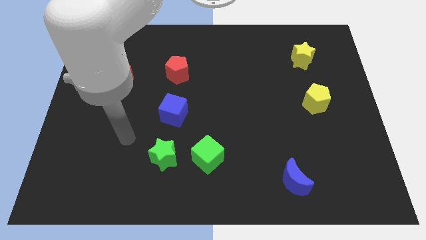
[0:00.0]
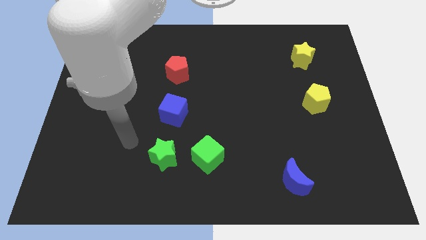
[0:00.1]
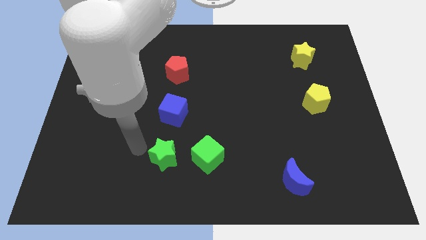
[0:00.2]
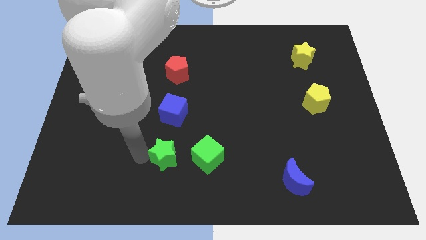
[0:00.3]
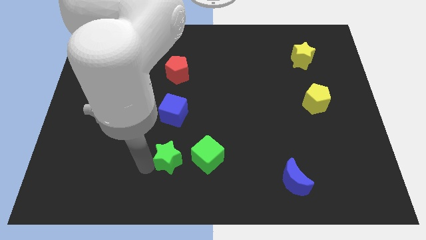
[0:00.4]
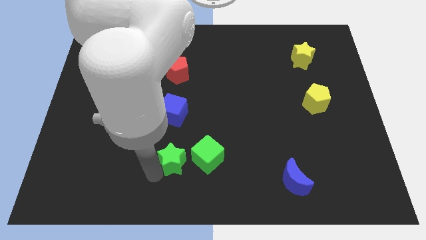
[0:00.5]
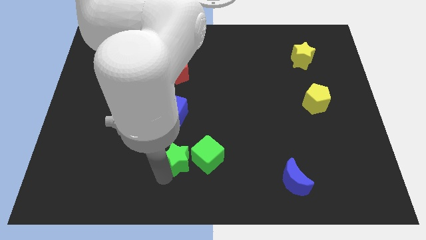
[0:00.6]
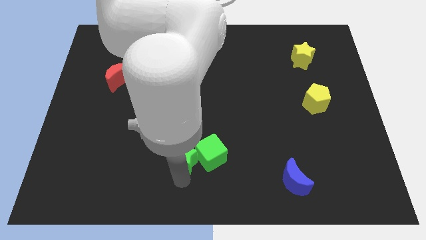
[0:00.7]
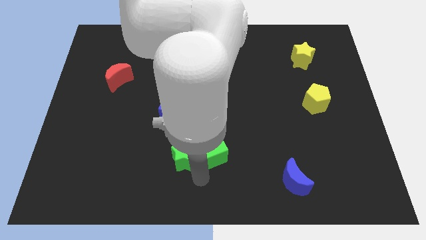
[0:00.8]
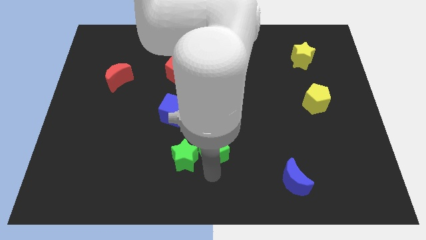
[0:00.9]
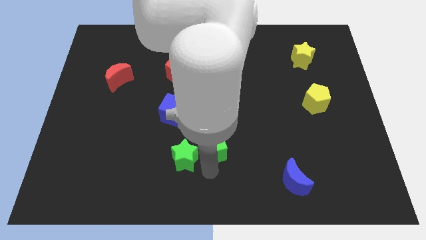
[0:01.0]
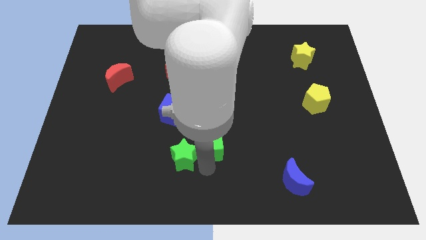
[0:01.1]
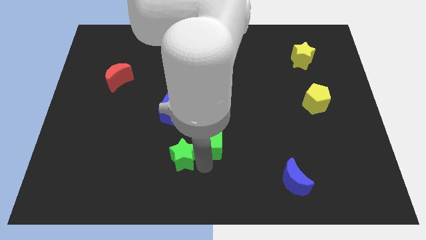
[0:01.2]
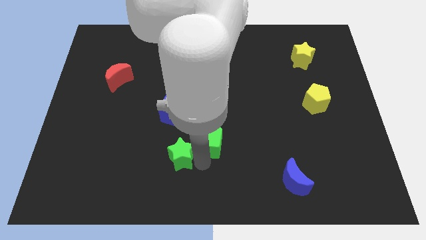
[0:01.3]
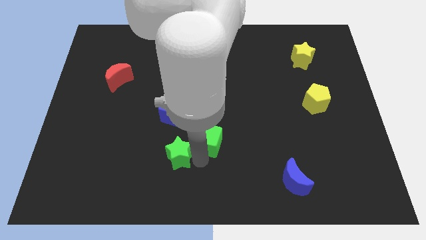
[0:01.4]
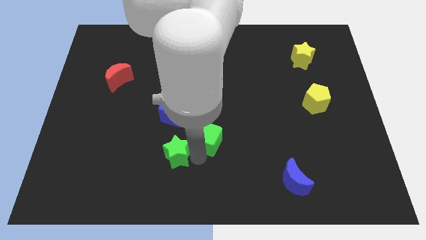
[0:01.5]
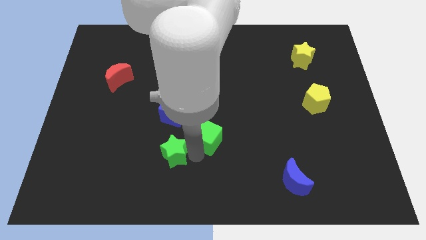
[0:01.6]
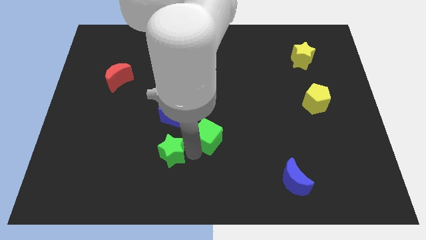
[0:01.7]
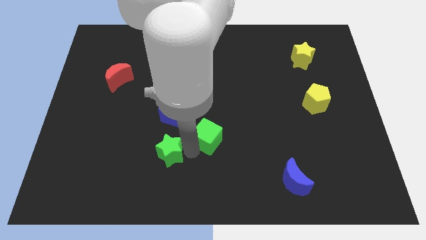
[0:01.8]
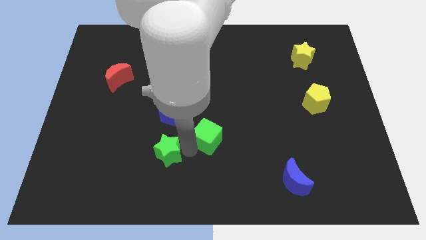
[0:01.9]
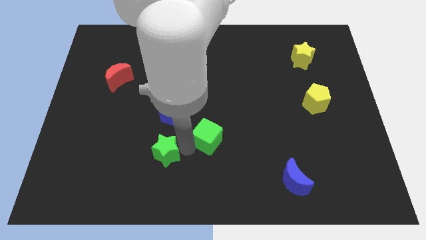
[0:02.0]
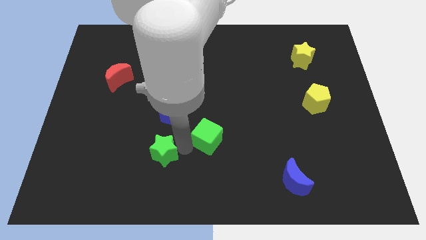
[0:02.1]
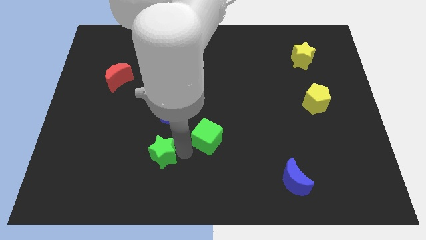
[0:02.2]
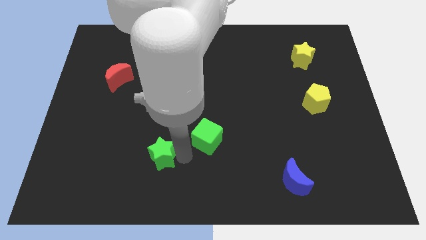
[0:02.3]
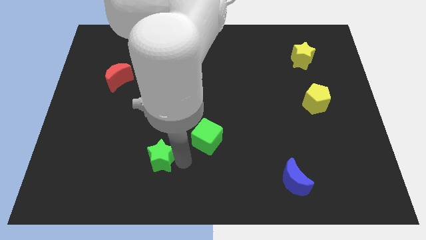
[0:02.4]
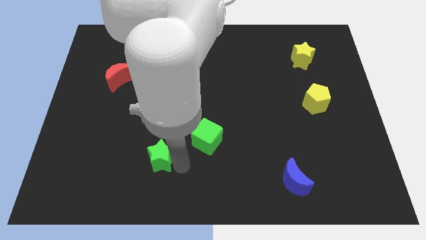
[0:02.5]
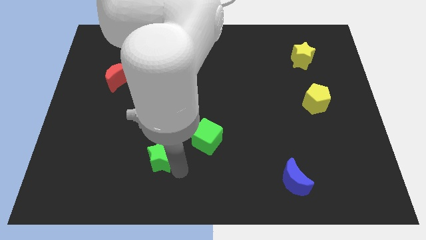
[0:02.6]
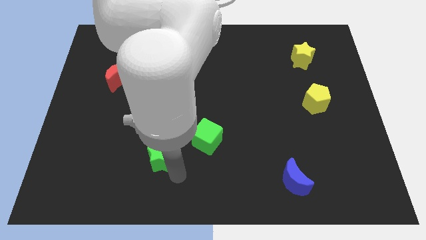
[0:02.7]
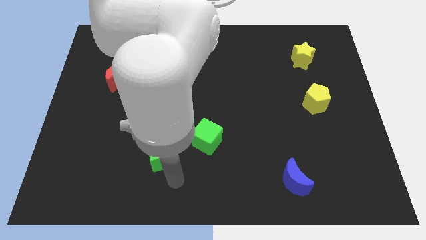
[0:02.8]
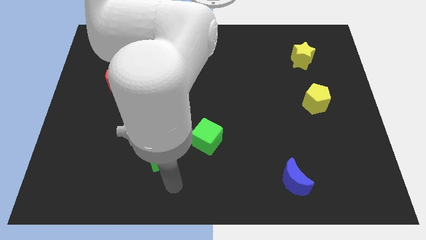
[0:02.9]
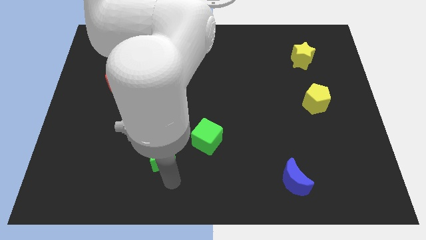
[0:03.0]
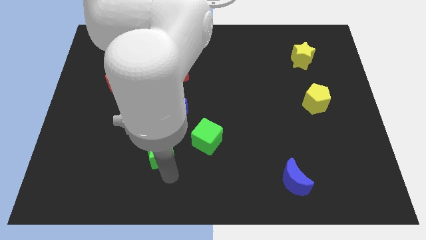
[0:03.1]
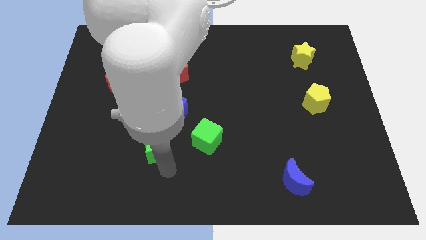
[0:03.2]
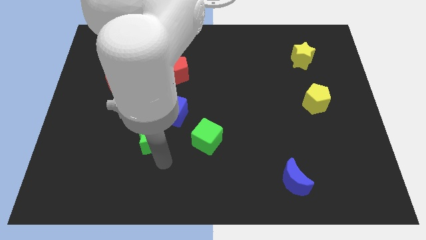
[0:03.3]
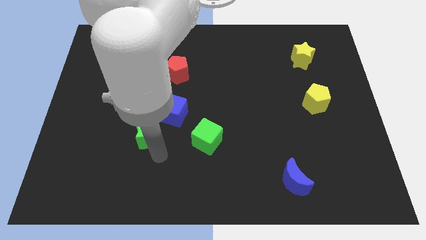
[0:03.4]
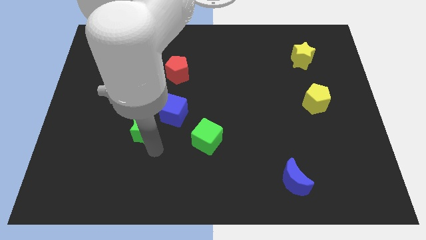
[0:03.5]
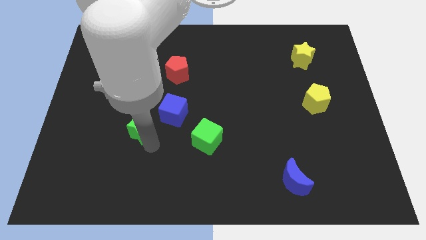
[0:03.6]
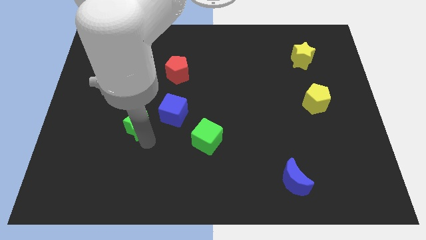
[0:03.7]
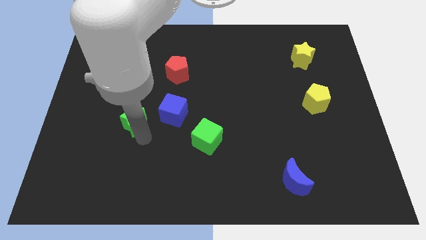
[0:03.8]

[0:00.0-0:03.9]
slightly move the green star up

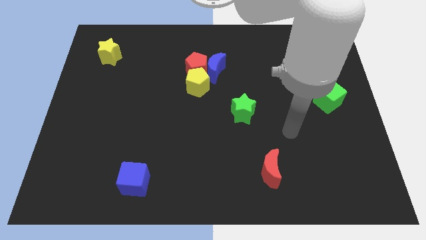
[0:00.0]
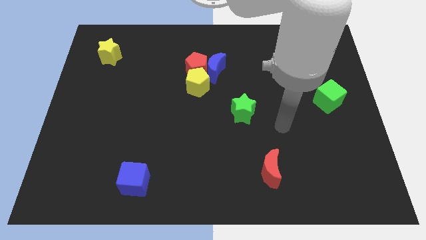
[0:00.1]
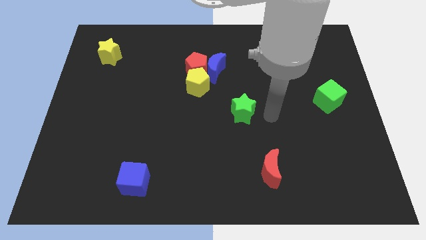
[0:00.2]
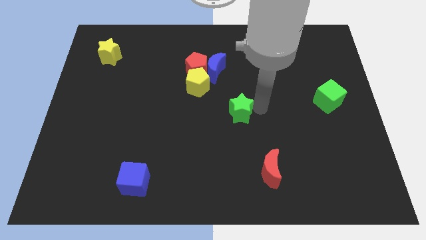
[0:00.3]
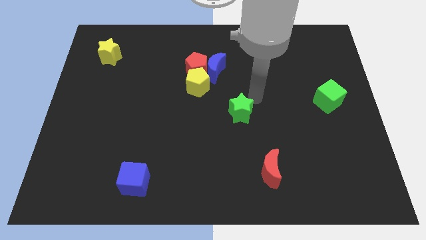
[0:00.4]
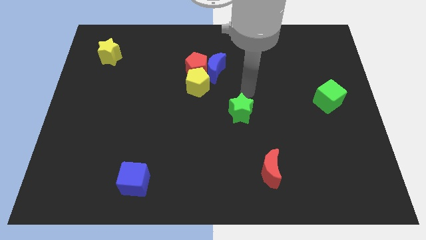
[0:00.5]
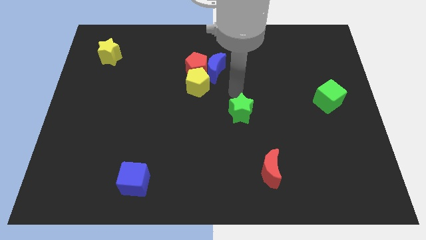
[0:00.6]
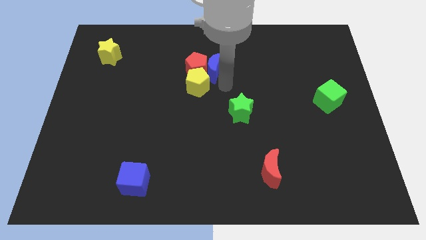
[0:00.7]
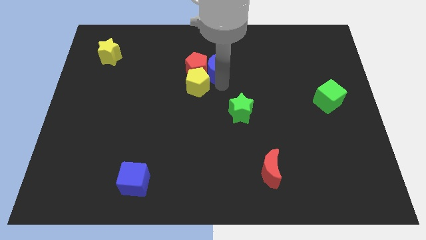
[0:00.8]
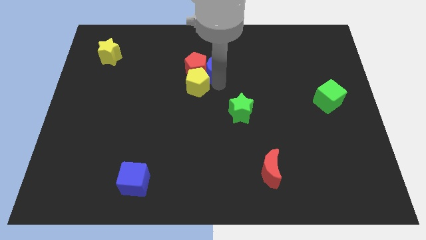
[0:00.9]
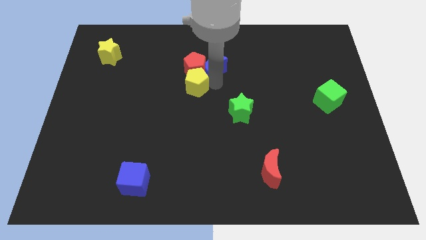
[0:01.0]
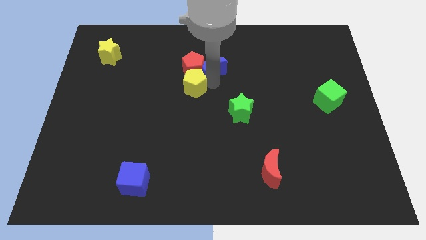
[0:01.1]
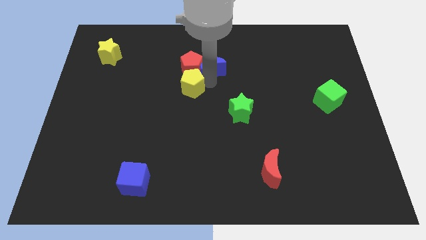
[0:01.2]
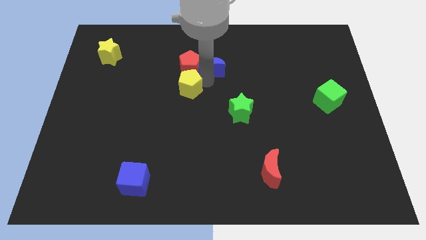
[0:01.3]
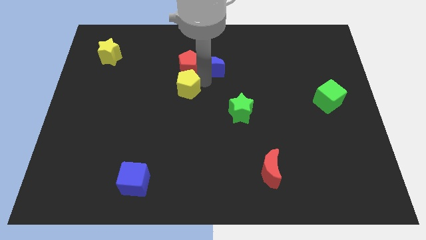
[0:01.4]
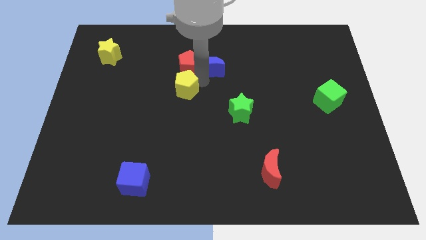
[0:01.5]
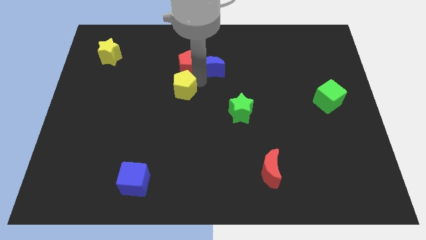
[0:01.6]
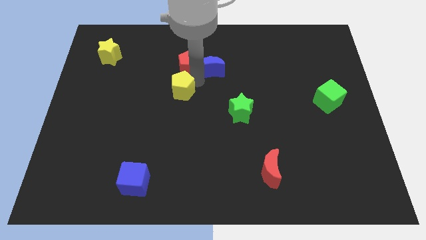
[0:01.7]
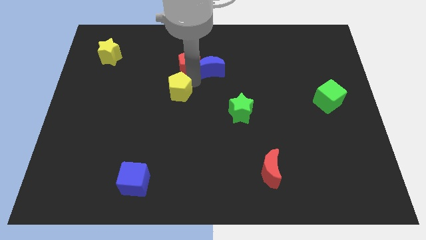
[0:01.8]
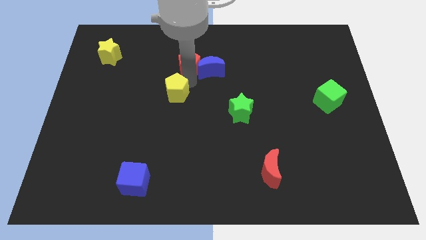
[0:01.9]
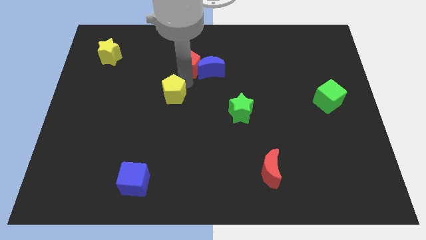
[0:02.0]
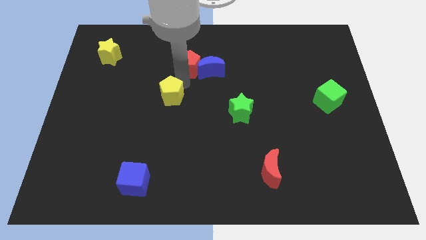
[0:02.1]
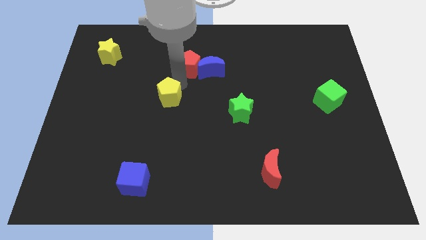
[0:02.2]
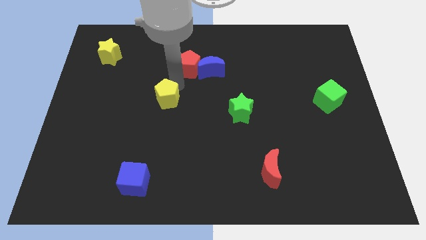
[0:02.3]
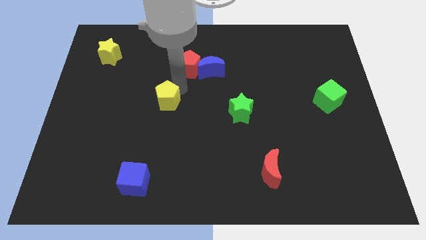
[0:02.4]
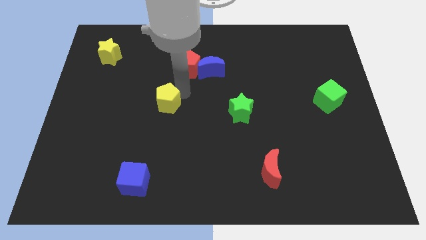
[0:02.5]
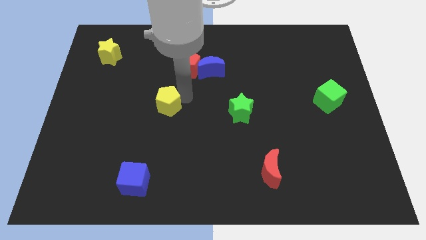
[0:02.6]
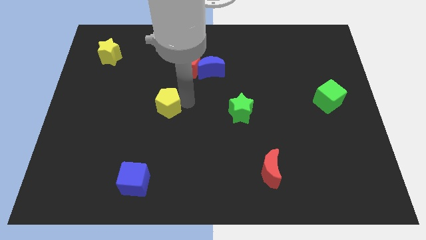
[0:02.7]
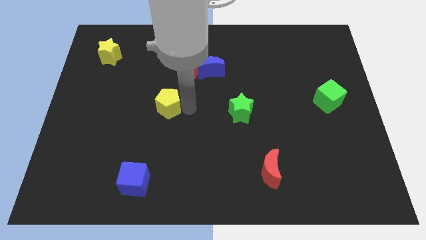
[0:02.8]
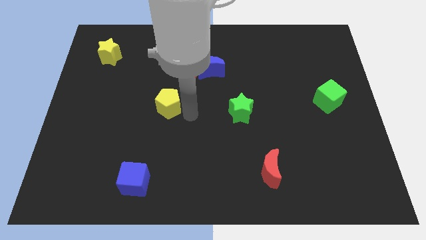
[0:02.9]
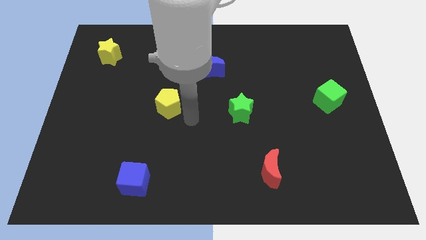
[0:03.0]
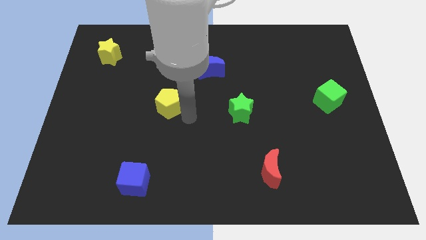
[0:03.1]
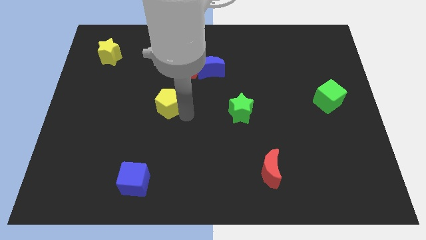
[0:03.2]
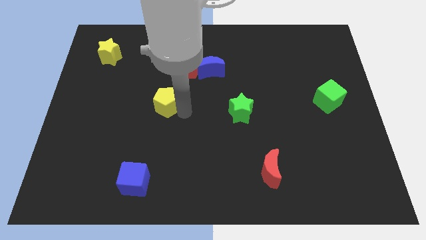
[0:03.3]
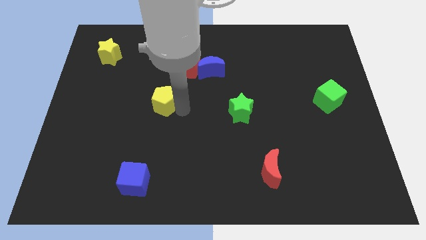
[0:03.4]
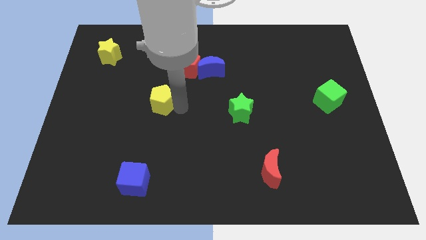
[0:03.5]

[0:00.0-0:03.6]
push the yellow pentagon somewhat to the left

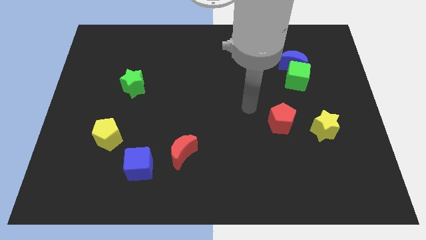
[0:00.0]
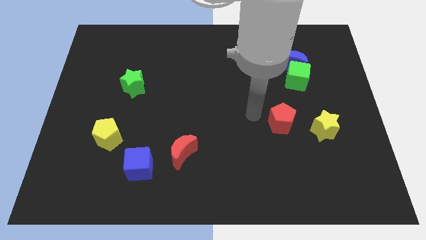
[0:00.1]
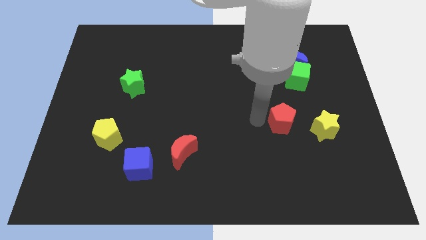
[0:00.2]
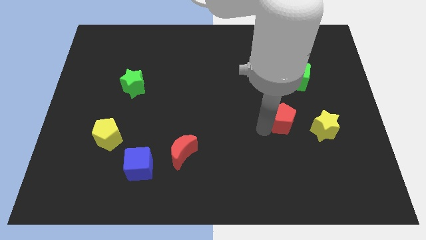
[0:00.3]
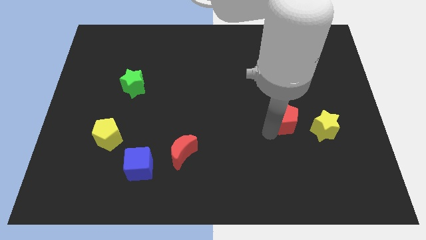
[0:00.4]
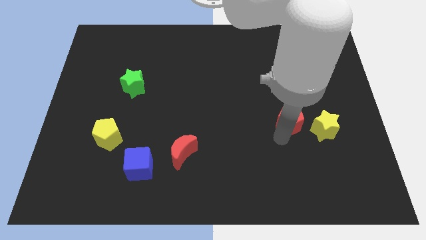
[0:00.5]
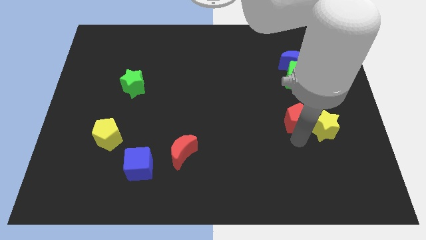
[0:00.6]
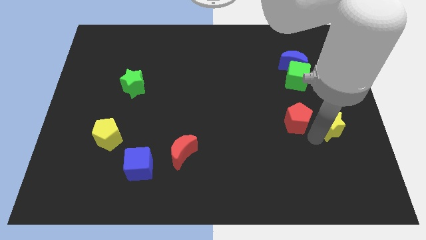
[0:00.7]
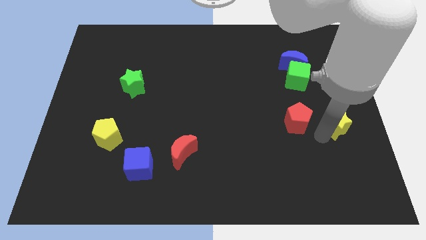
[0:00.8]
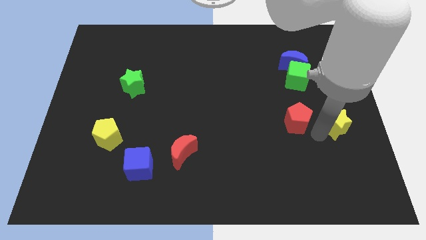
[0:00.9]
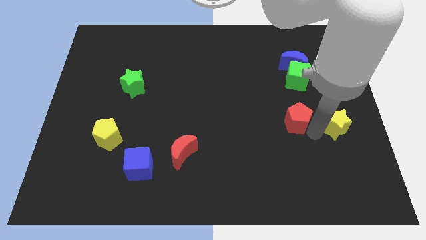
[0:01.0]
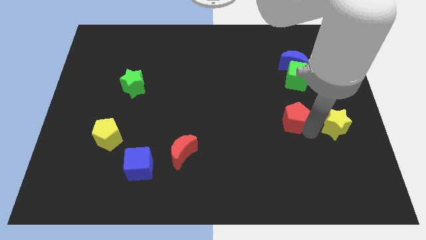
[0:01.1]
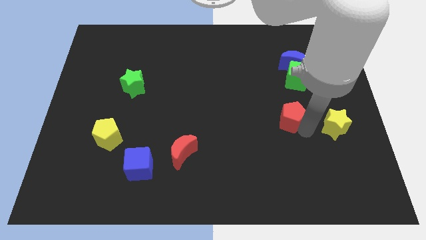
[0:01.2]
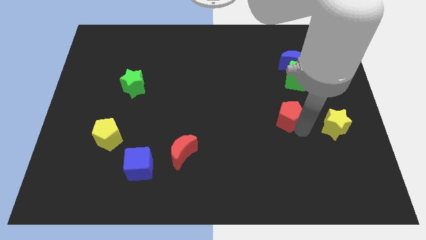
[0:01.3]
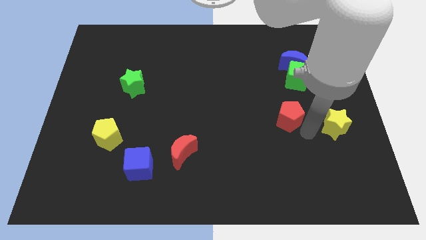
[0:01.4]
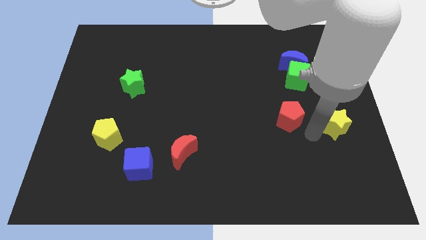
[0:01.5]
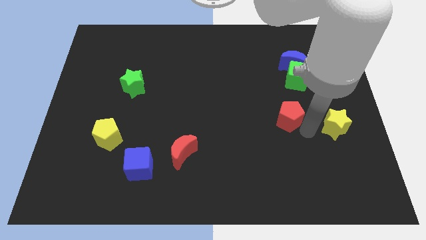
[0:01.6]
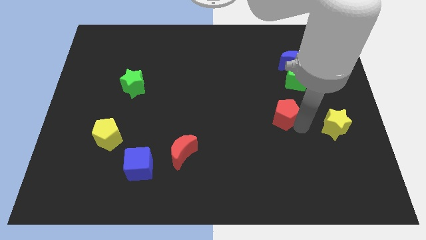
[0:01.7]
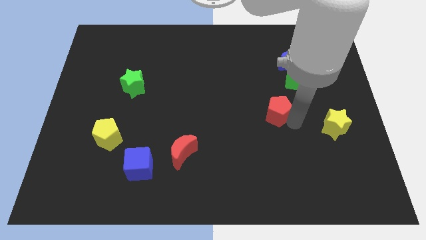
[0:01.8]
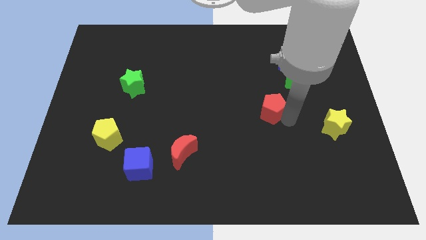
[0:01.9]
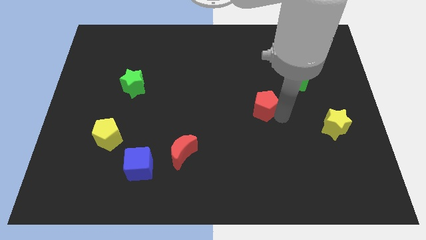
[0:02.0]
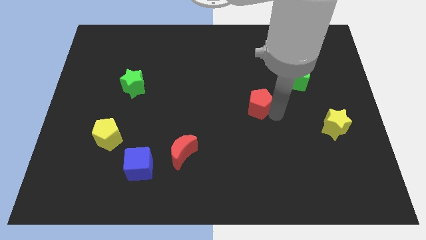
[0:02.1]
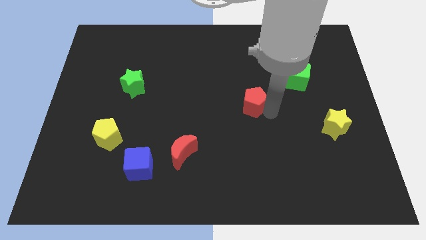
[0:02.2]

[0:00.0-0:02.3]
slightly slide the red pentagon upwards and then to the left
